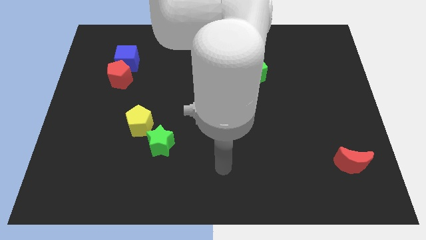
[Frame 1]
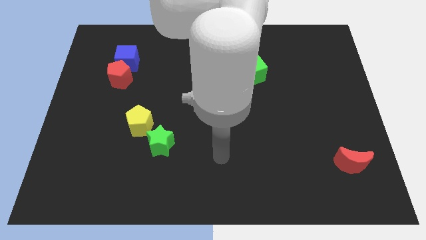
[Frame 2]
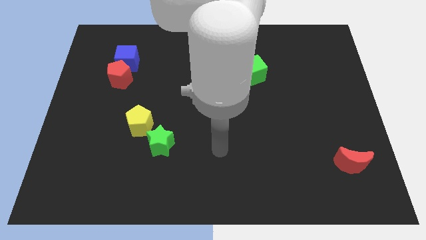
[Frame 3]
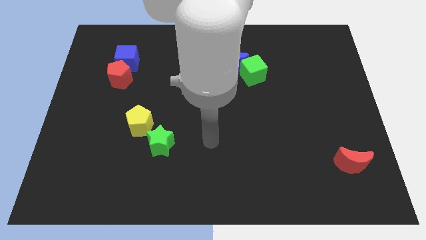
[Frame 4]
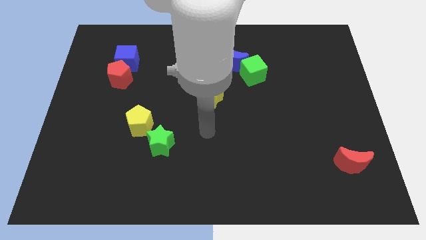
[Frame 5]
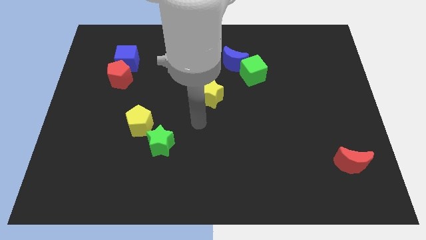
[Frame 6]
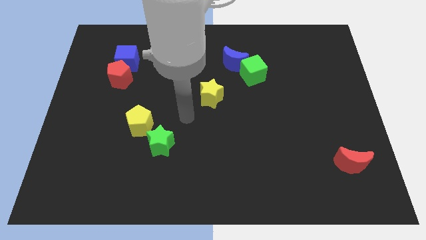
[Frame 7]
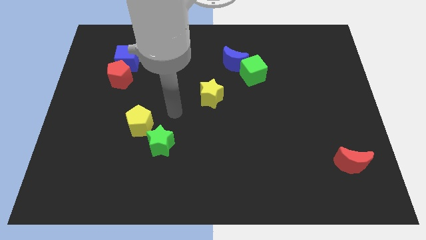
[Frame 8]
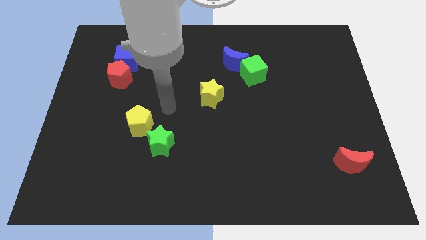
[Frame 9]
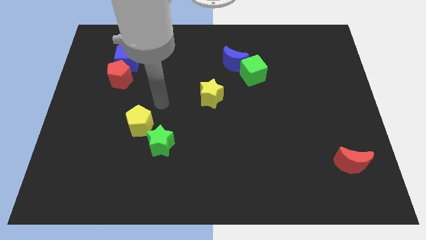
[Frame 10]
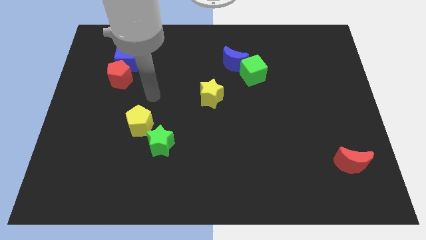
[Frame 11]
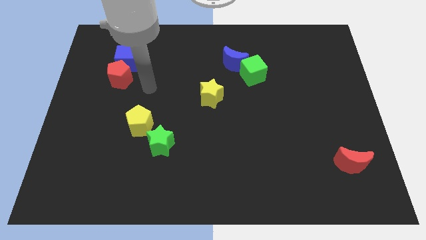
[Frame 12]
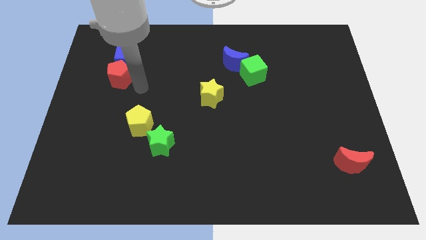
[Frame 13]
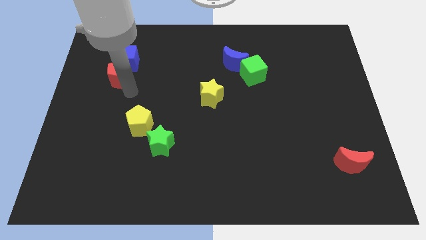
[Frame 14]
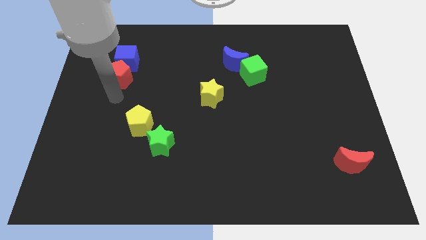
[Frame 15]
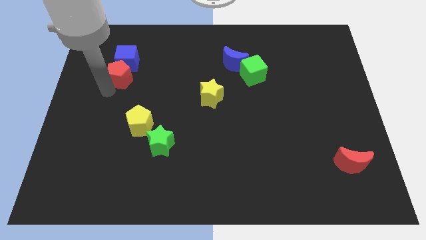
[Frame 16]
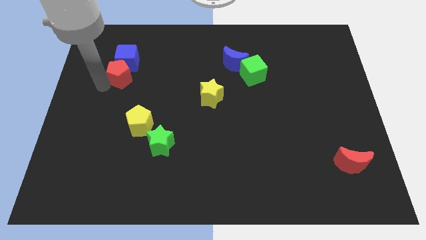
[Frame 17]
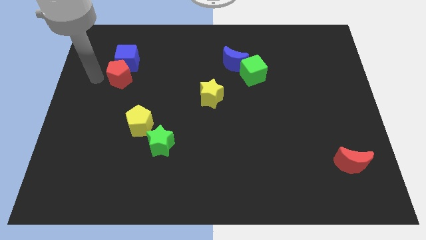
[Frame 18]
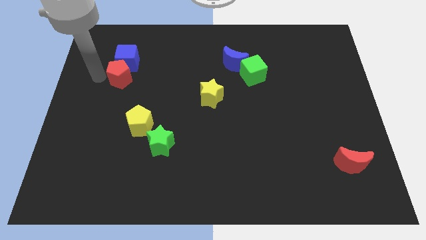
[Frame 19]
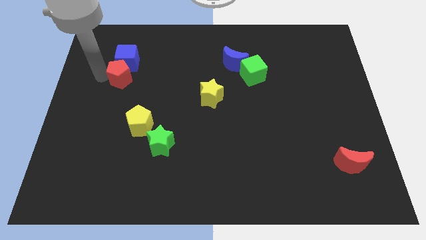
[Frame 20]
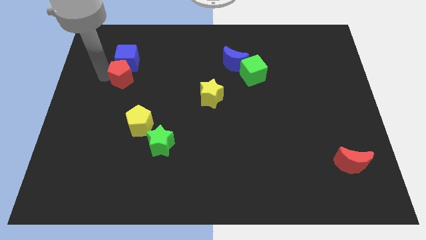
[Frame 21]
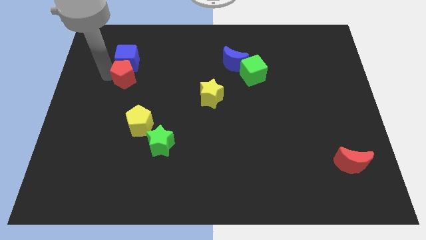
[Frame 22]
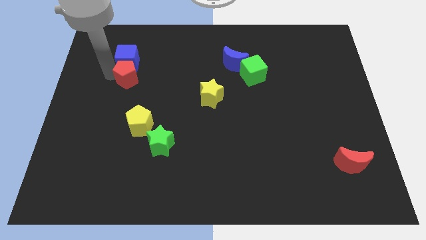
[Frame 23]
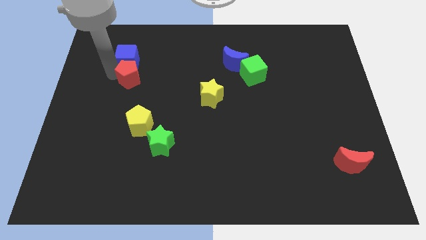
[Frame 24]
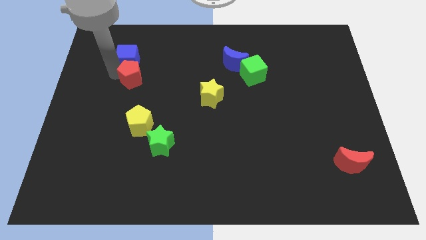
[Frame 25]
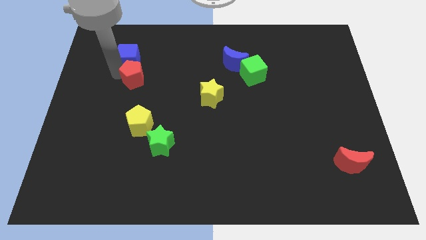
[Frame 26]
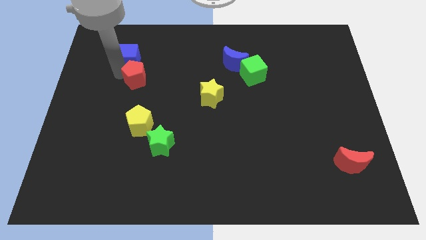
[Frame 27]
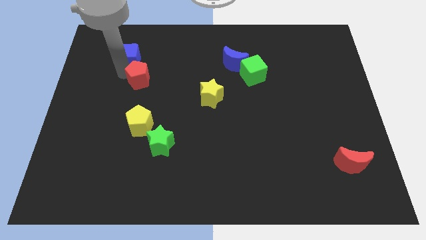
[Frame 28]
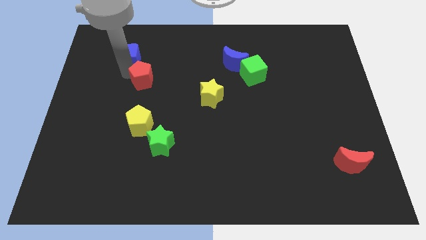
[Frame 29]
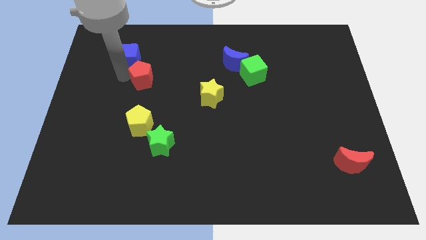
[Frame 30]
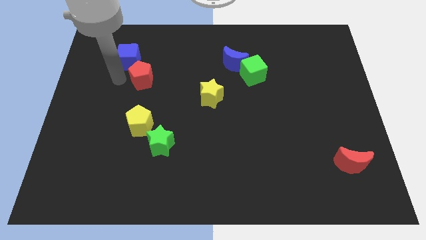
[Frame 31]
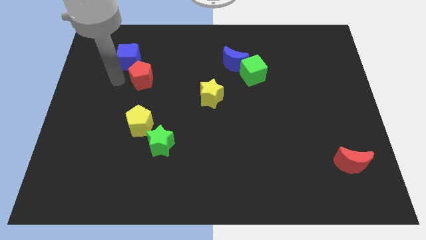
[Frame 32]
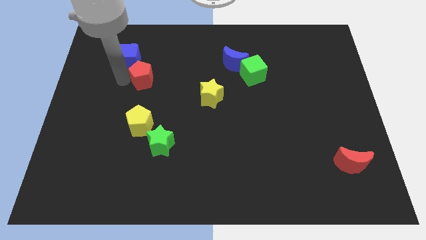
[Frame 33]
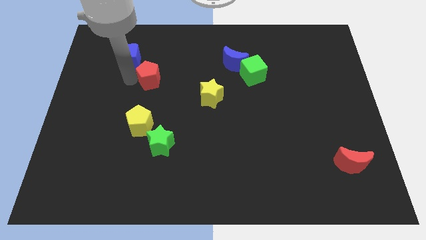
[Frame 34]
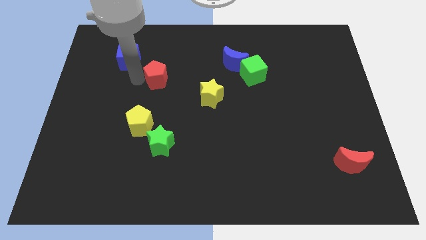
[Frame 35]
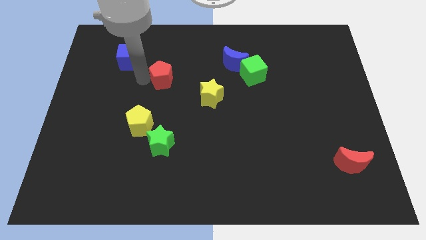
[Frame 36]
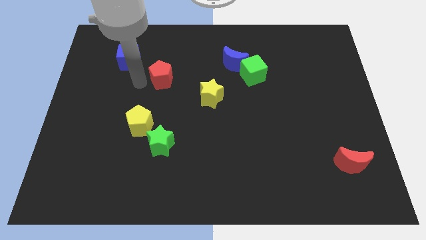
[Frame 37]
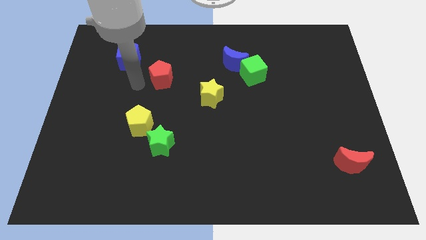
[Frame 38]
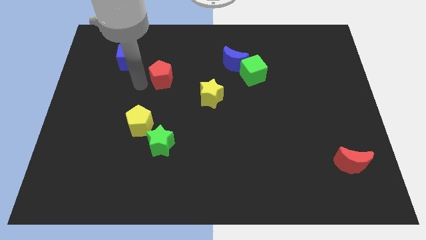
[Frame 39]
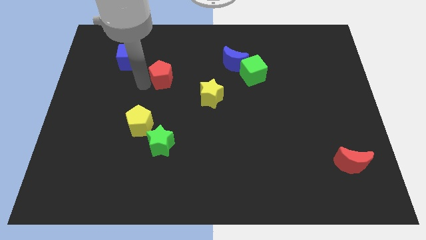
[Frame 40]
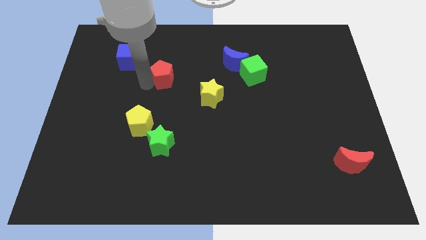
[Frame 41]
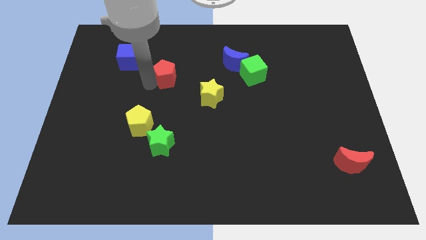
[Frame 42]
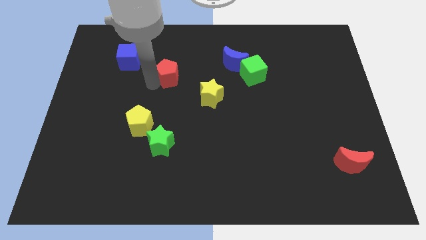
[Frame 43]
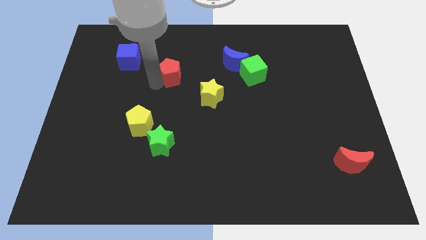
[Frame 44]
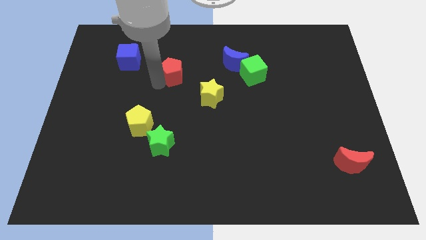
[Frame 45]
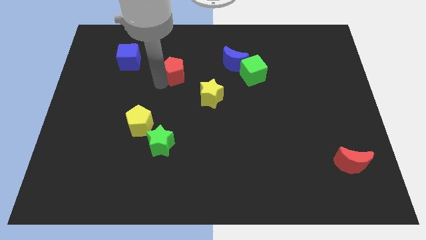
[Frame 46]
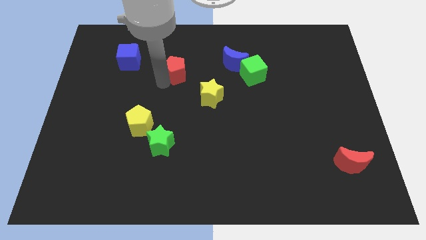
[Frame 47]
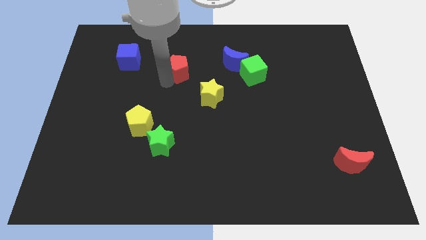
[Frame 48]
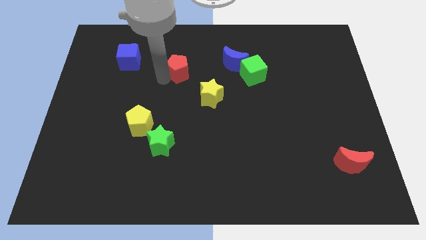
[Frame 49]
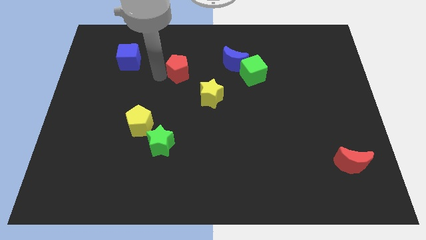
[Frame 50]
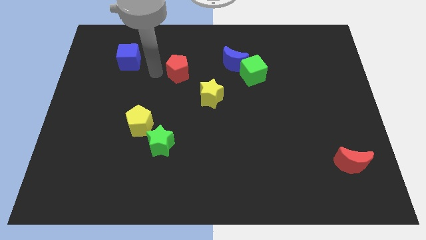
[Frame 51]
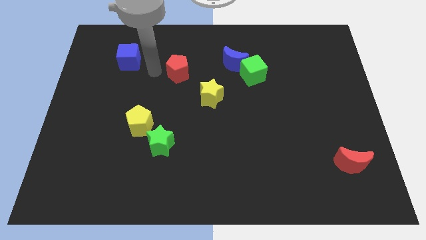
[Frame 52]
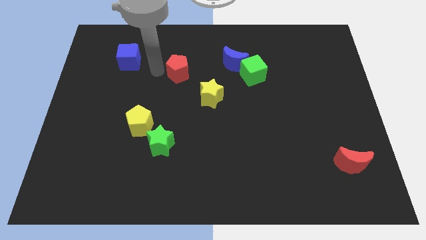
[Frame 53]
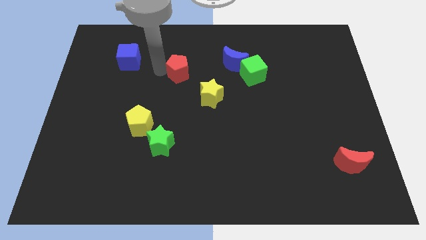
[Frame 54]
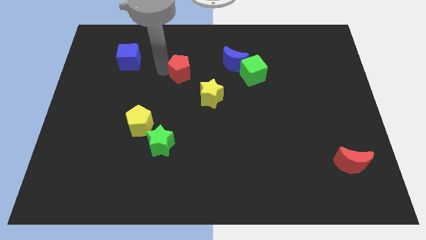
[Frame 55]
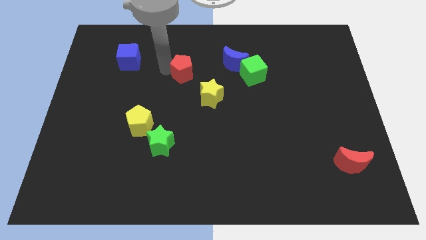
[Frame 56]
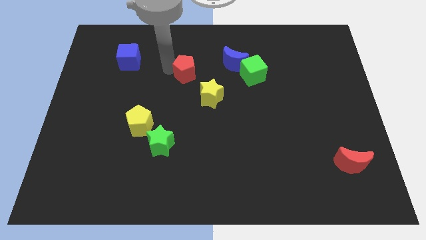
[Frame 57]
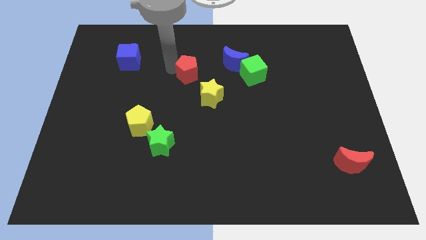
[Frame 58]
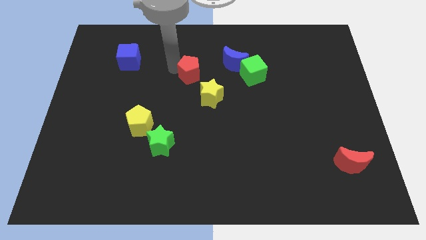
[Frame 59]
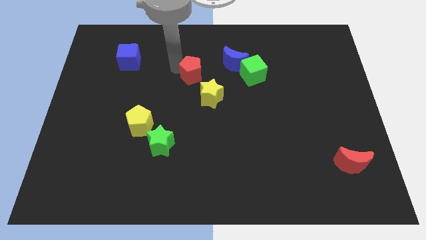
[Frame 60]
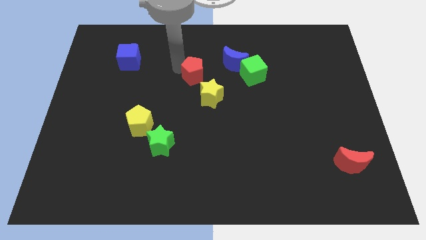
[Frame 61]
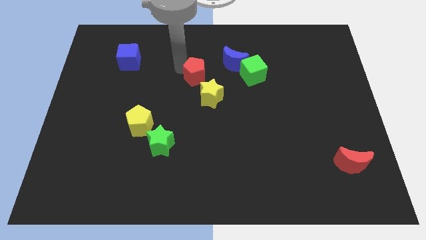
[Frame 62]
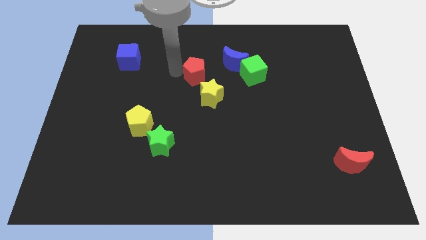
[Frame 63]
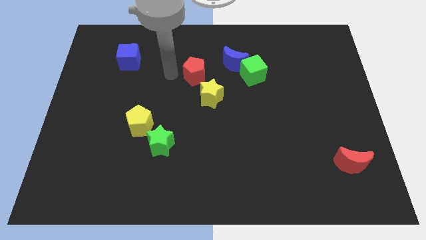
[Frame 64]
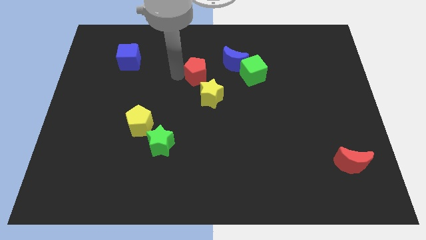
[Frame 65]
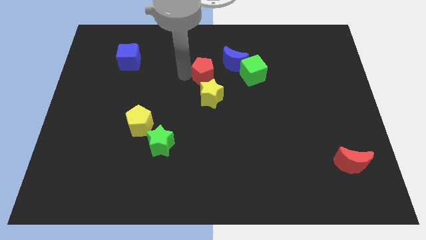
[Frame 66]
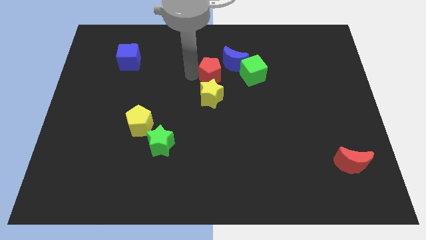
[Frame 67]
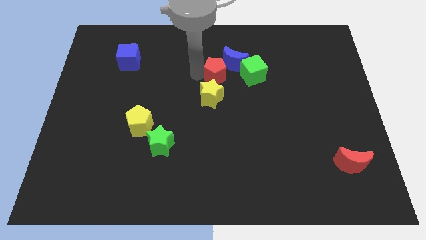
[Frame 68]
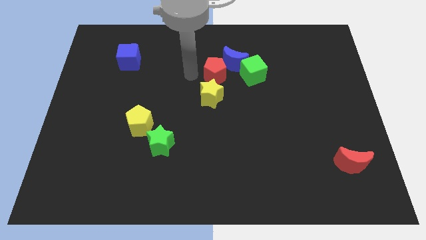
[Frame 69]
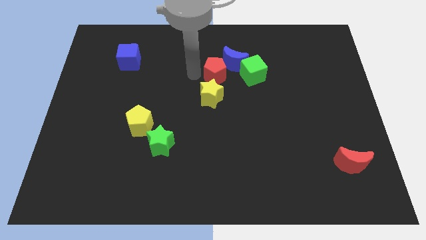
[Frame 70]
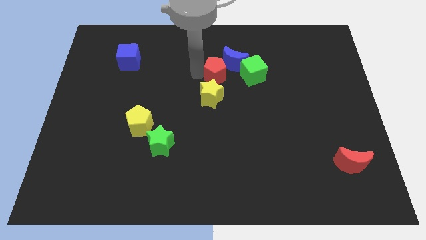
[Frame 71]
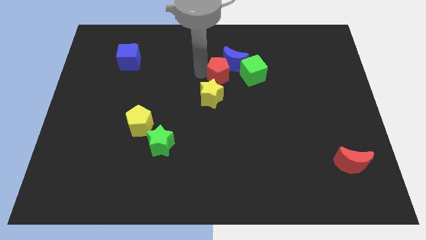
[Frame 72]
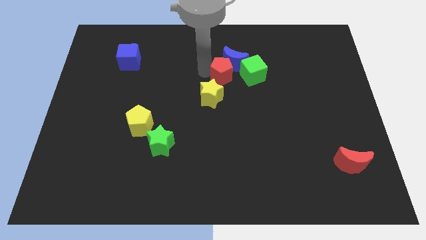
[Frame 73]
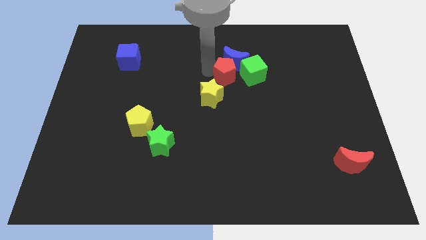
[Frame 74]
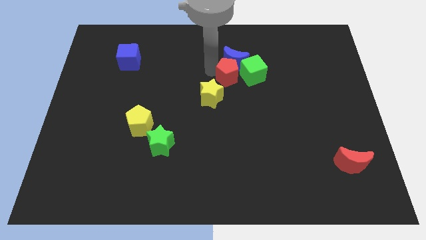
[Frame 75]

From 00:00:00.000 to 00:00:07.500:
move the red pentagon to the green cube
